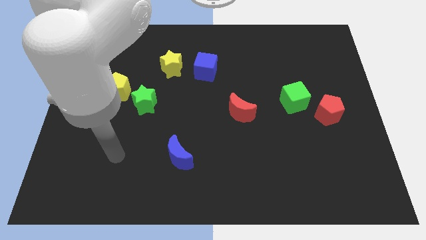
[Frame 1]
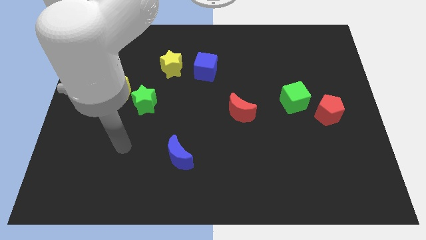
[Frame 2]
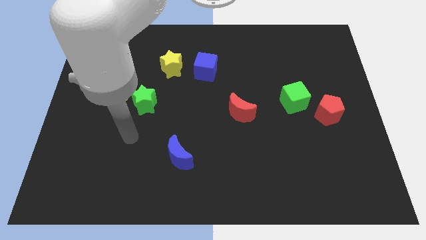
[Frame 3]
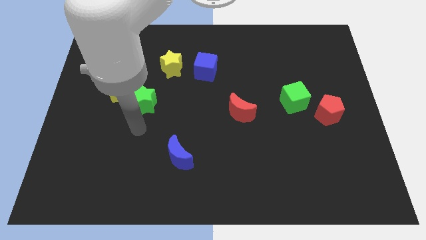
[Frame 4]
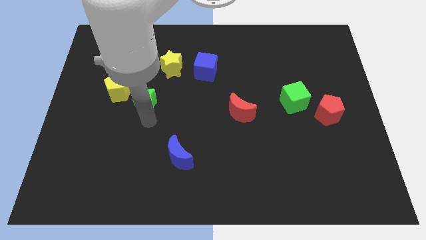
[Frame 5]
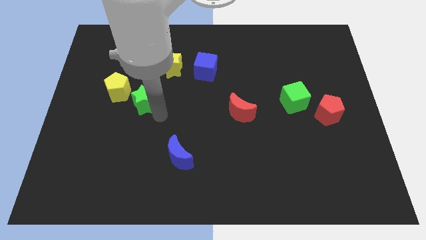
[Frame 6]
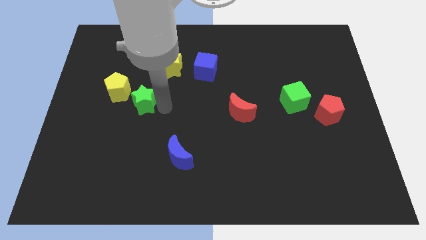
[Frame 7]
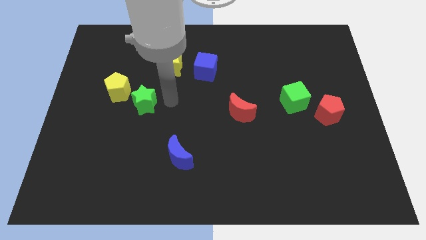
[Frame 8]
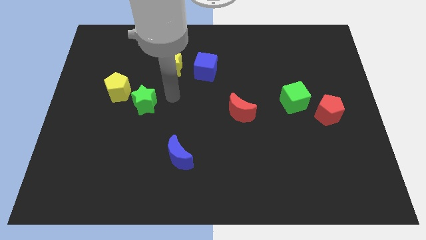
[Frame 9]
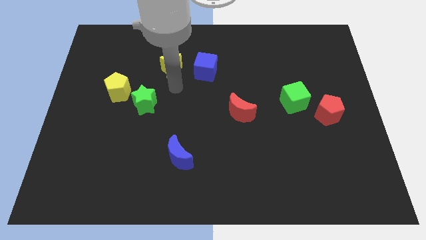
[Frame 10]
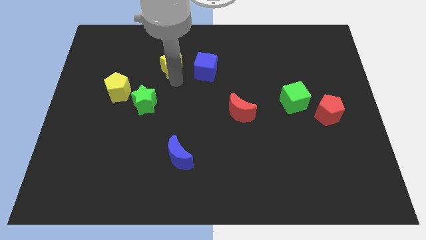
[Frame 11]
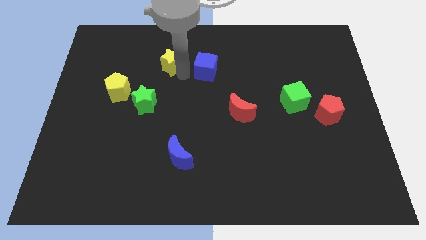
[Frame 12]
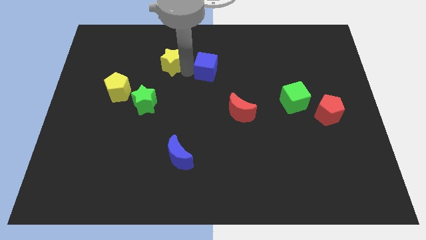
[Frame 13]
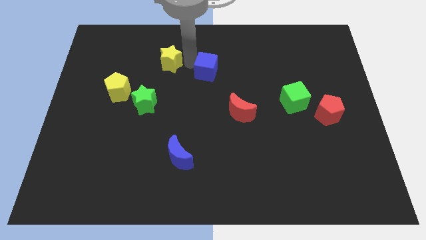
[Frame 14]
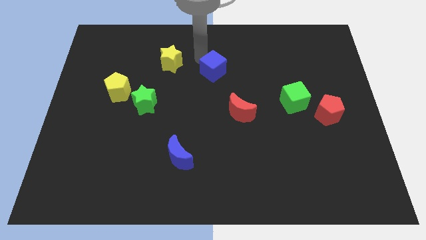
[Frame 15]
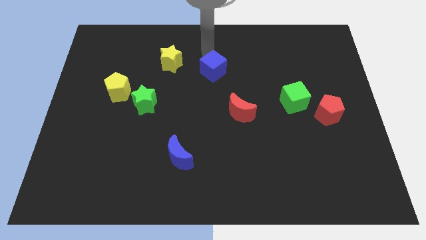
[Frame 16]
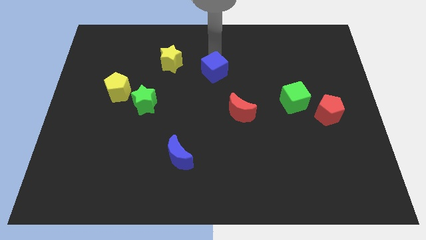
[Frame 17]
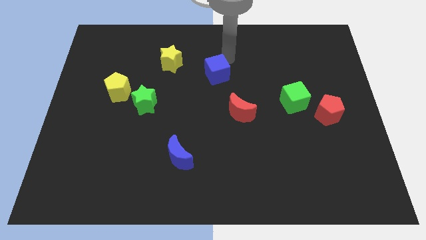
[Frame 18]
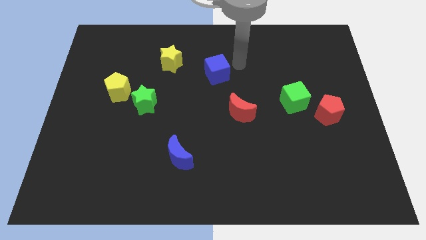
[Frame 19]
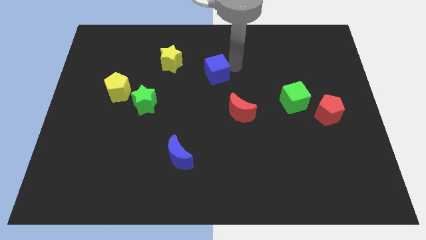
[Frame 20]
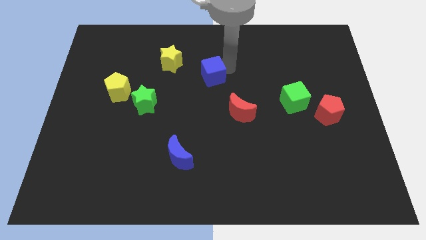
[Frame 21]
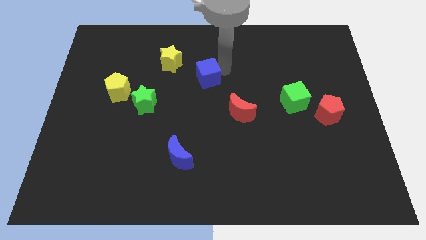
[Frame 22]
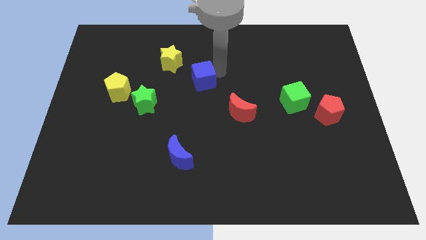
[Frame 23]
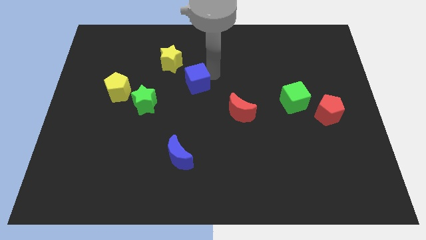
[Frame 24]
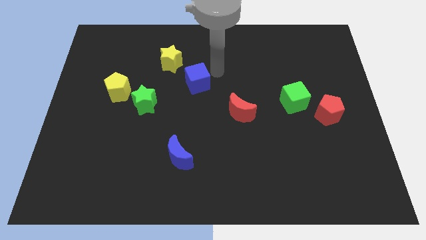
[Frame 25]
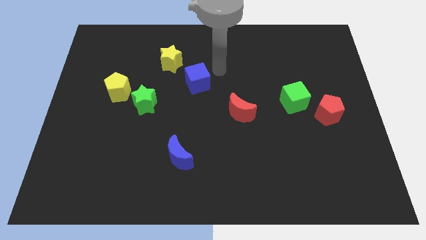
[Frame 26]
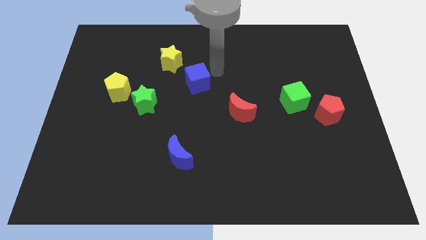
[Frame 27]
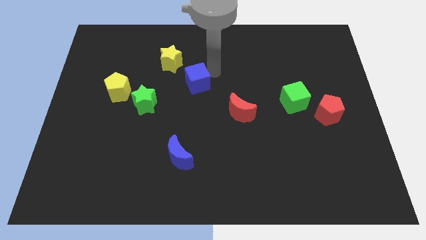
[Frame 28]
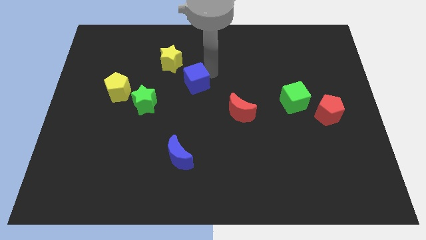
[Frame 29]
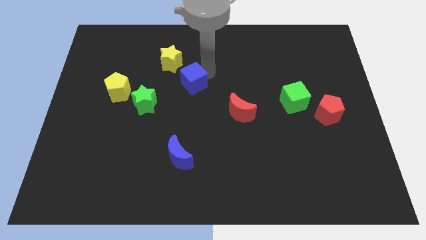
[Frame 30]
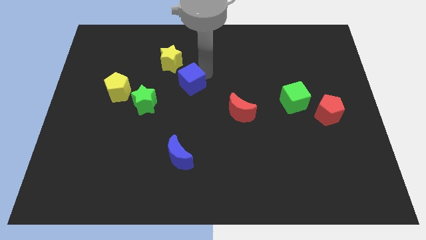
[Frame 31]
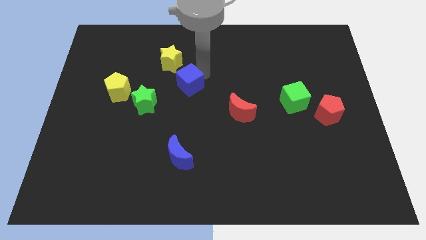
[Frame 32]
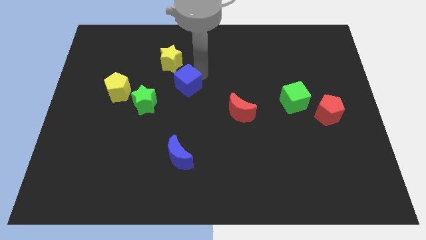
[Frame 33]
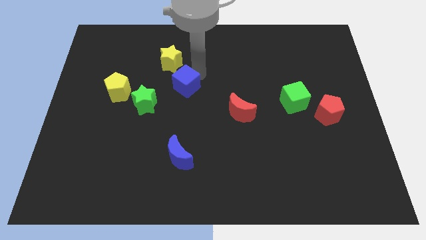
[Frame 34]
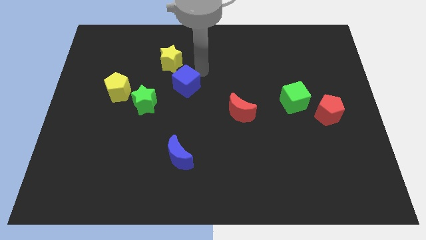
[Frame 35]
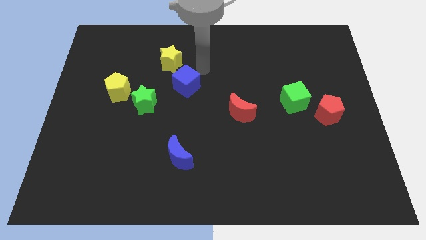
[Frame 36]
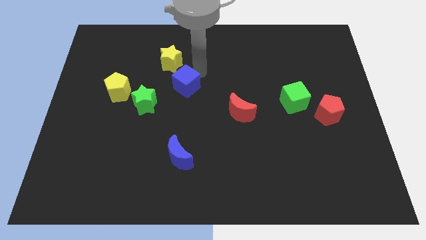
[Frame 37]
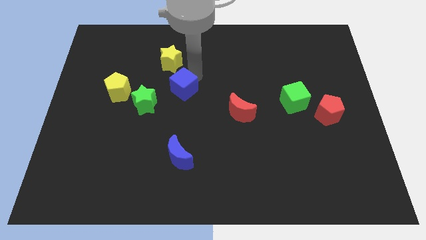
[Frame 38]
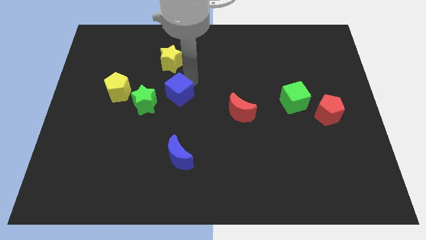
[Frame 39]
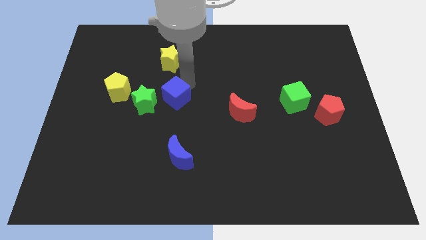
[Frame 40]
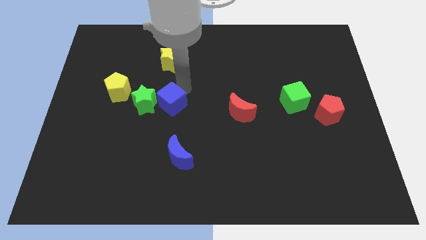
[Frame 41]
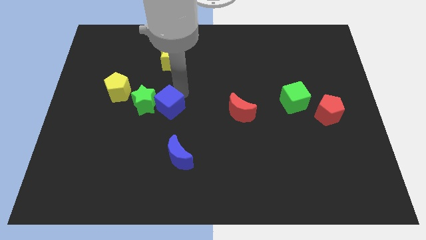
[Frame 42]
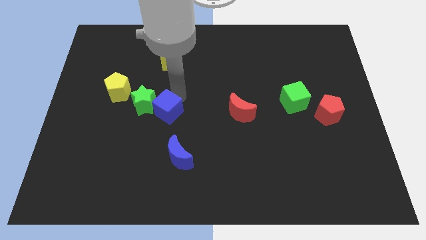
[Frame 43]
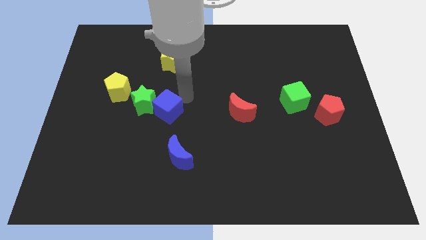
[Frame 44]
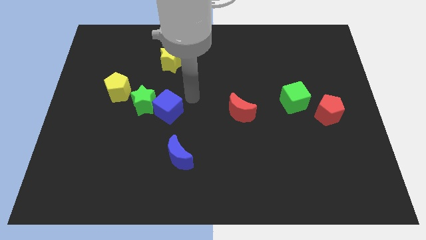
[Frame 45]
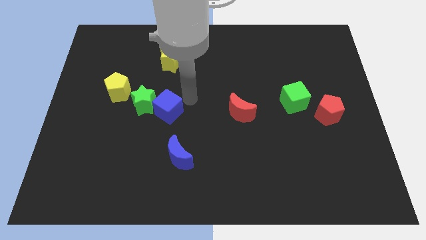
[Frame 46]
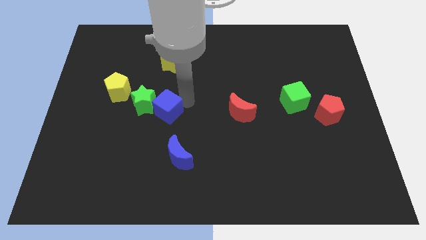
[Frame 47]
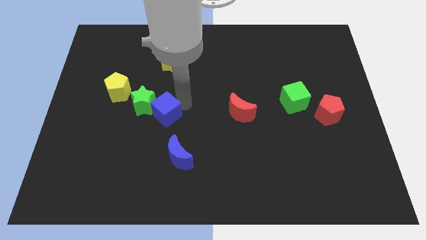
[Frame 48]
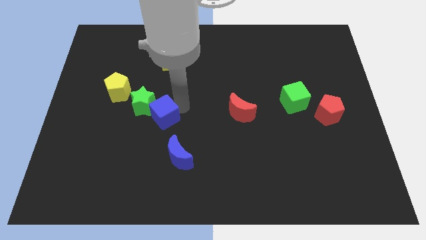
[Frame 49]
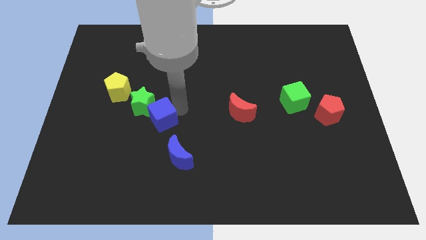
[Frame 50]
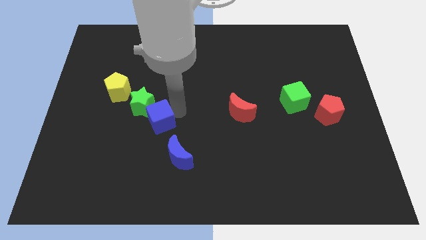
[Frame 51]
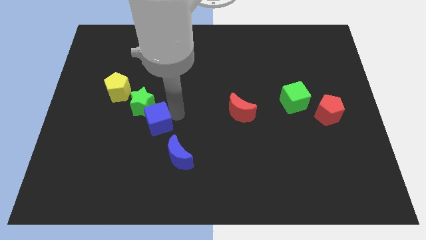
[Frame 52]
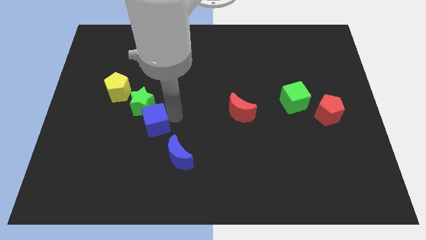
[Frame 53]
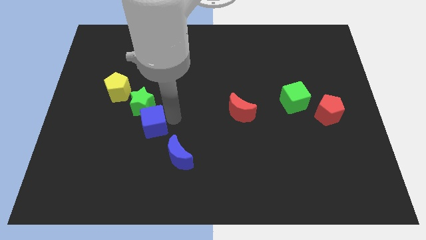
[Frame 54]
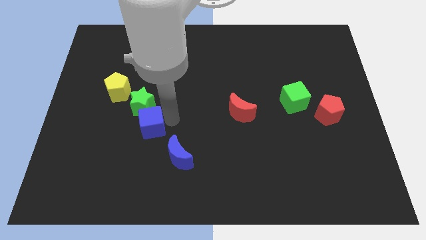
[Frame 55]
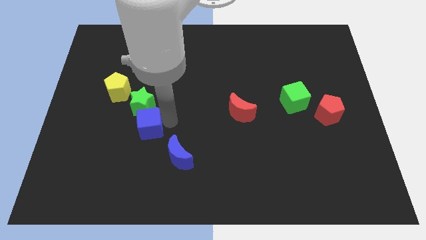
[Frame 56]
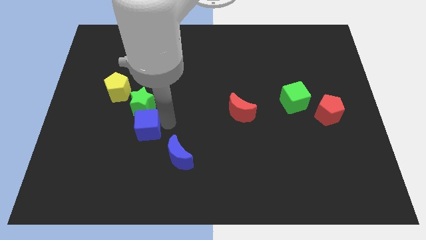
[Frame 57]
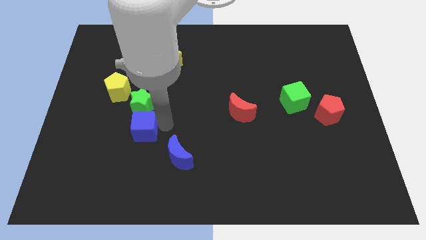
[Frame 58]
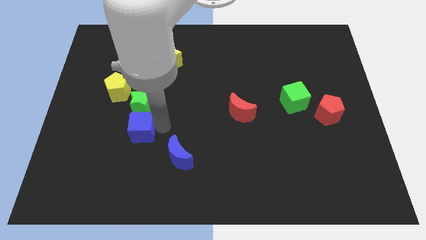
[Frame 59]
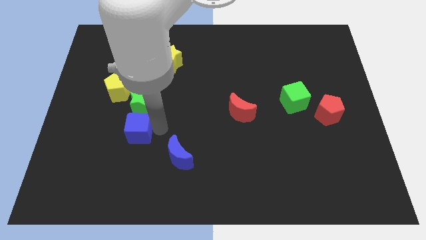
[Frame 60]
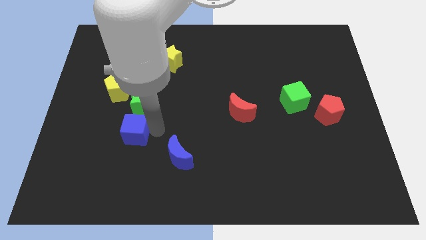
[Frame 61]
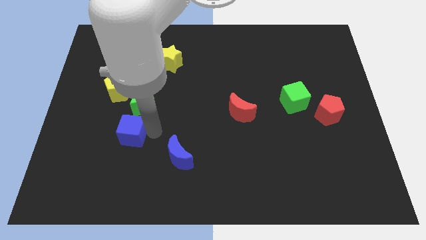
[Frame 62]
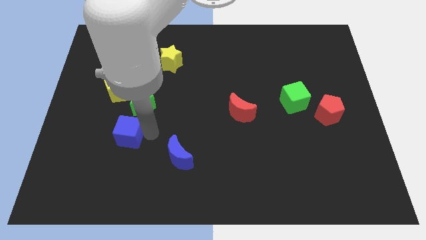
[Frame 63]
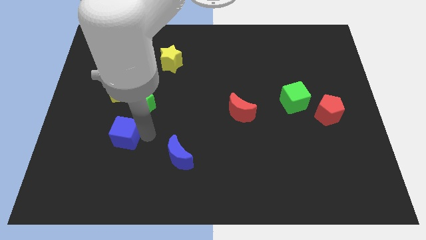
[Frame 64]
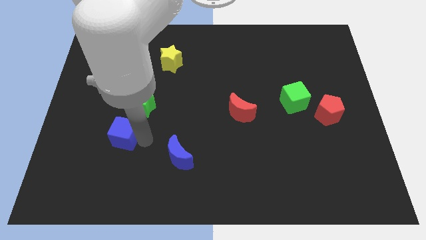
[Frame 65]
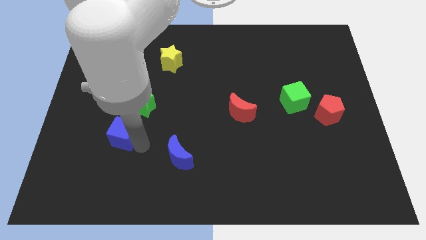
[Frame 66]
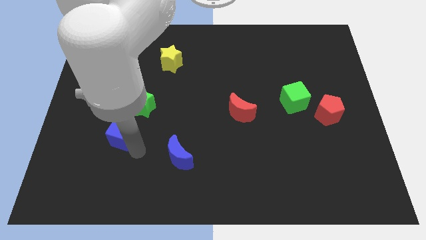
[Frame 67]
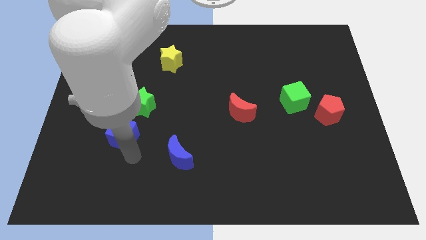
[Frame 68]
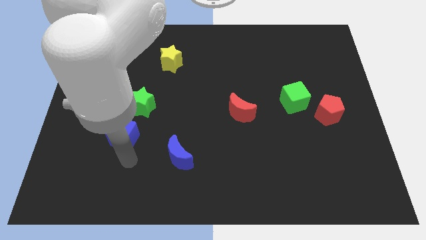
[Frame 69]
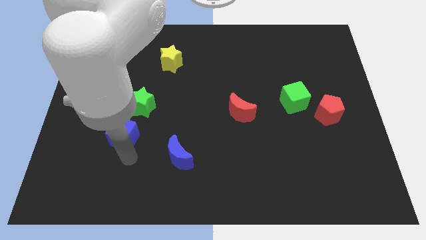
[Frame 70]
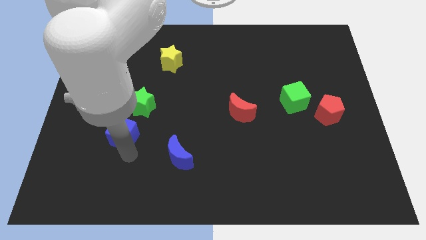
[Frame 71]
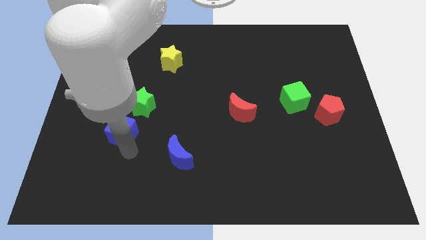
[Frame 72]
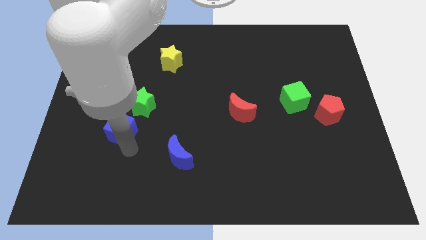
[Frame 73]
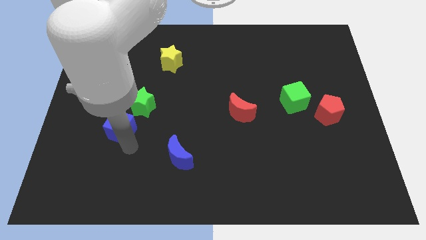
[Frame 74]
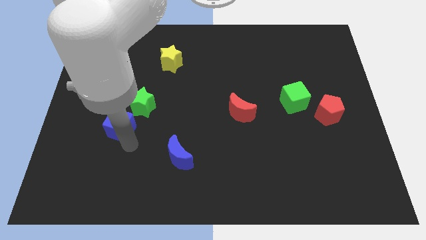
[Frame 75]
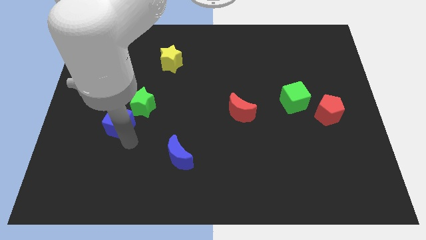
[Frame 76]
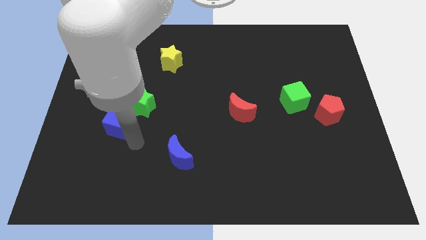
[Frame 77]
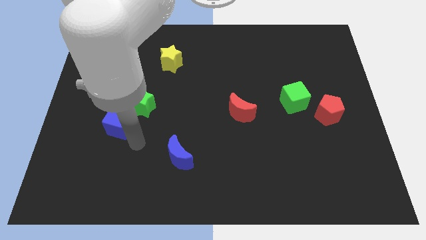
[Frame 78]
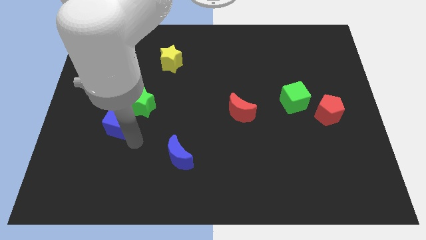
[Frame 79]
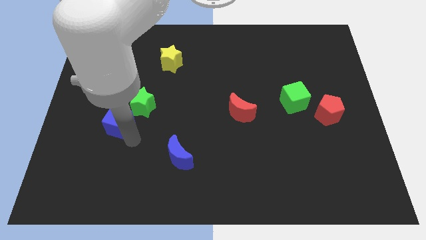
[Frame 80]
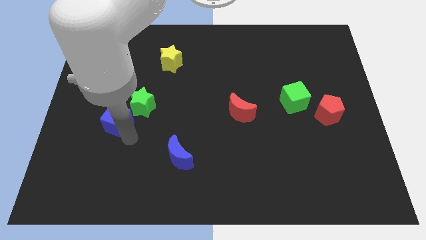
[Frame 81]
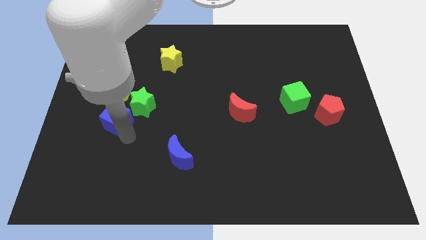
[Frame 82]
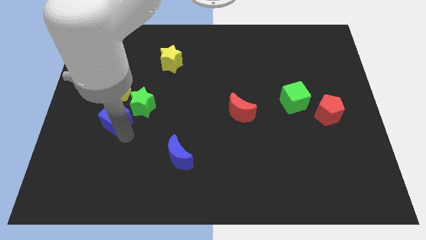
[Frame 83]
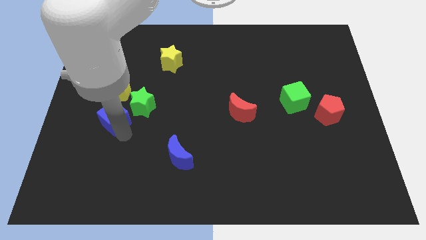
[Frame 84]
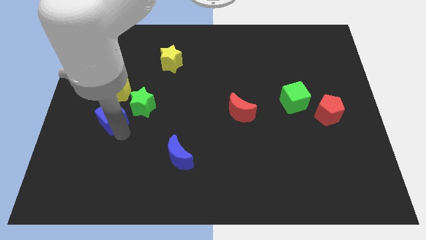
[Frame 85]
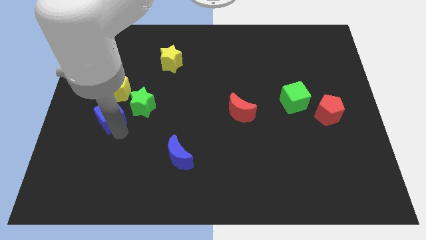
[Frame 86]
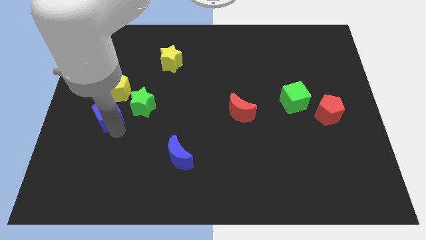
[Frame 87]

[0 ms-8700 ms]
slide the blue cube to the bottom left of the yellow pentagon
